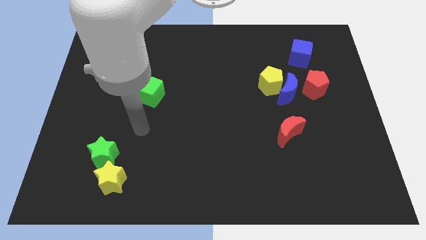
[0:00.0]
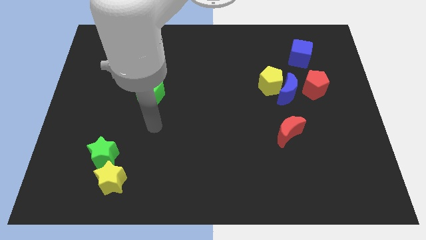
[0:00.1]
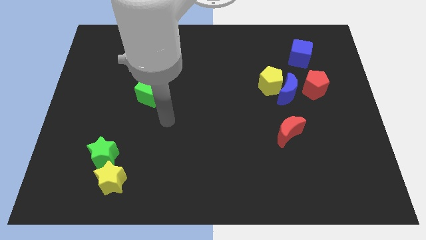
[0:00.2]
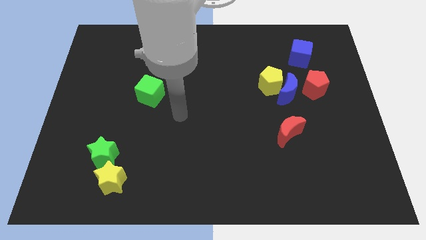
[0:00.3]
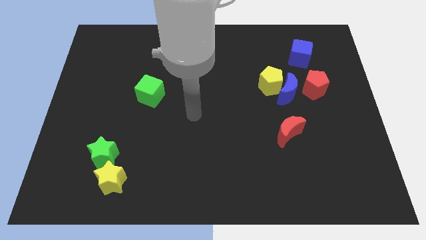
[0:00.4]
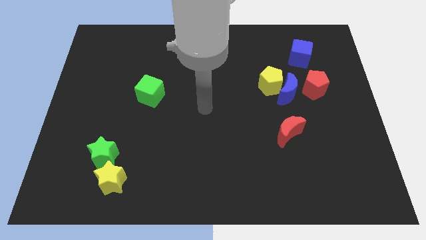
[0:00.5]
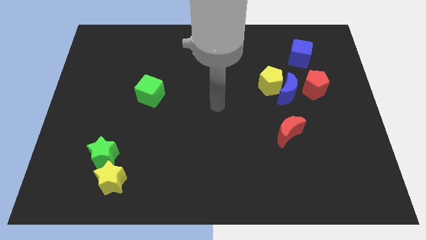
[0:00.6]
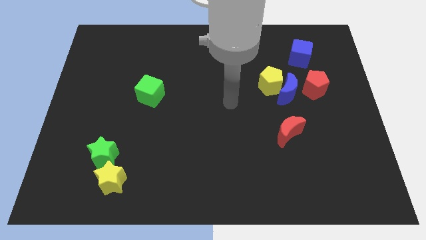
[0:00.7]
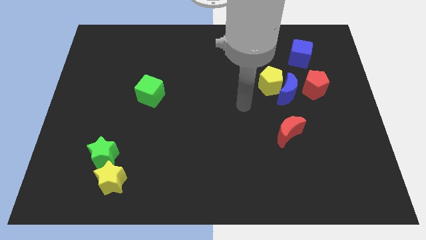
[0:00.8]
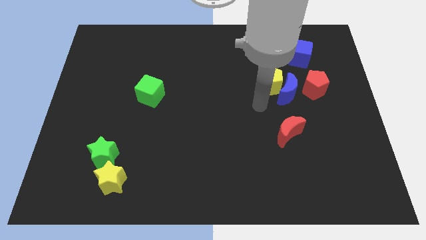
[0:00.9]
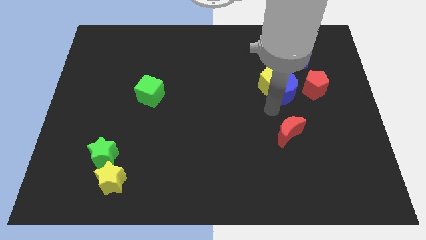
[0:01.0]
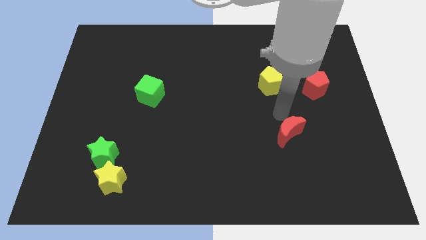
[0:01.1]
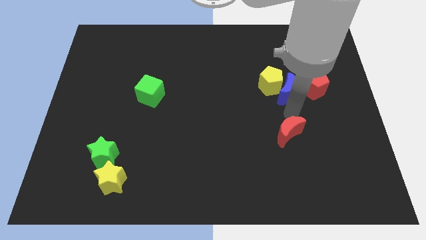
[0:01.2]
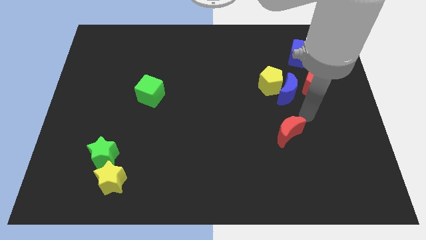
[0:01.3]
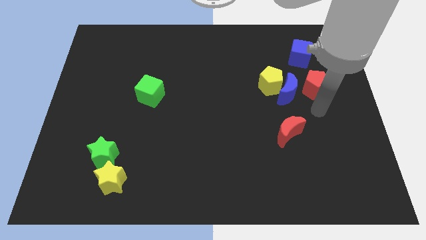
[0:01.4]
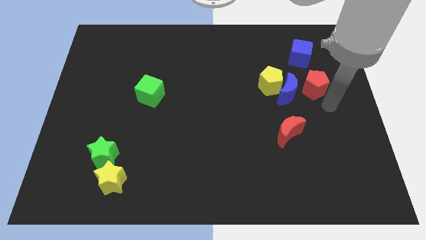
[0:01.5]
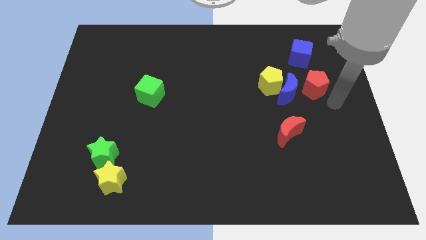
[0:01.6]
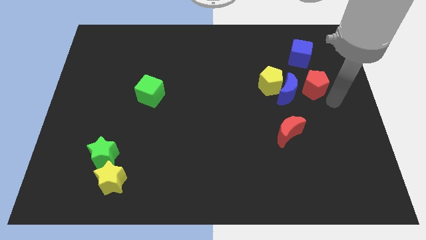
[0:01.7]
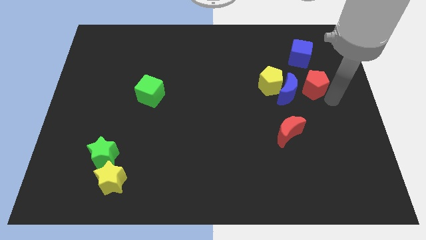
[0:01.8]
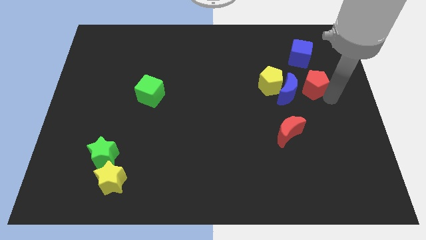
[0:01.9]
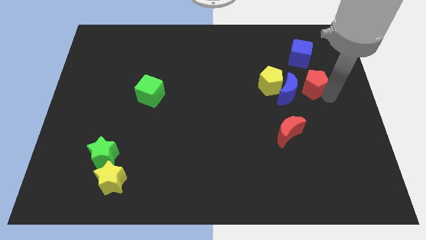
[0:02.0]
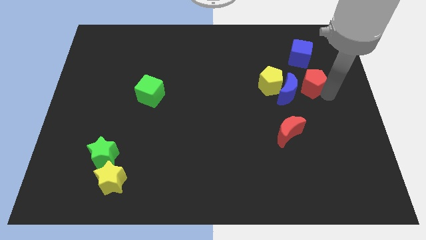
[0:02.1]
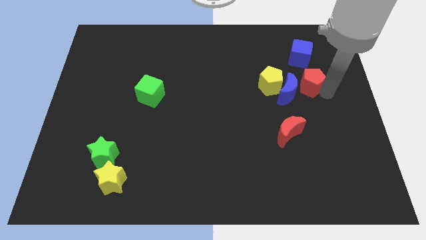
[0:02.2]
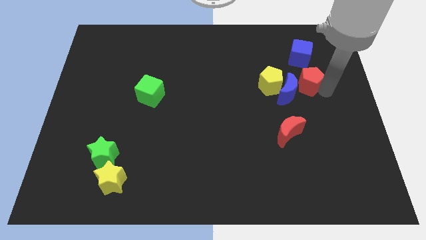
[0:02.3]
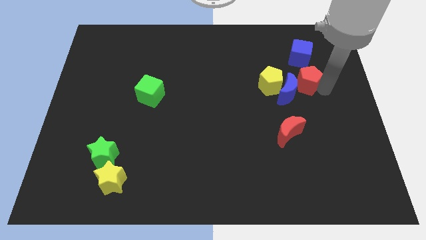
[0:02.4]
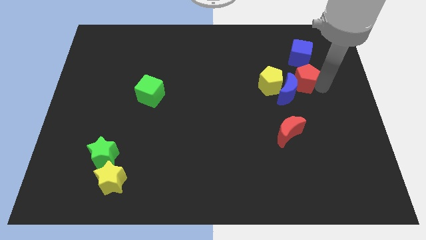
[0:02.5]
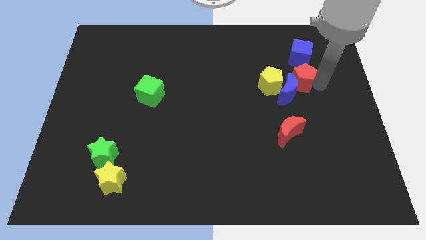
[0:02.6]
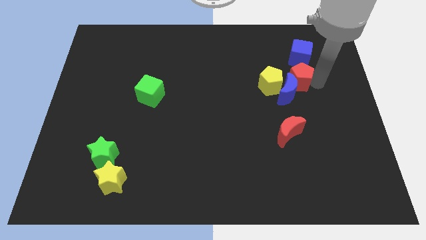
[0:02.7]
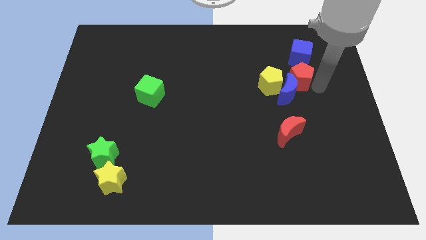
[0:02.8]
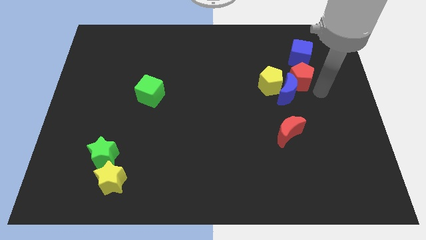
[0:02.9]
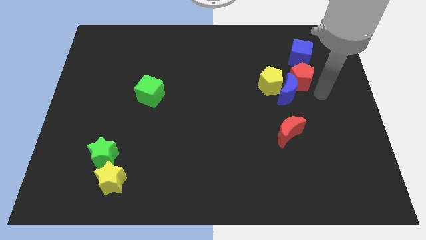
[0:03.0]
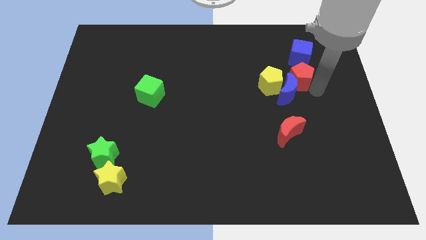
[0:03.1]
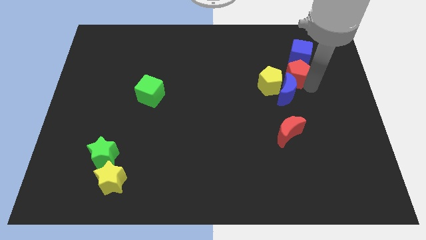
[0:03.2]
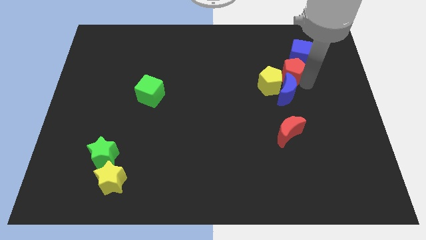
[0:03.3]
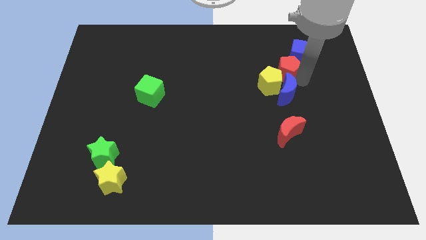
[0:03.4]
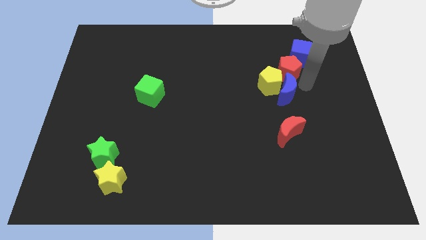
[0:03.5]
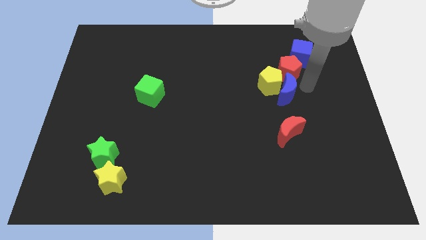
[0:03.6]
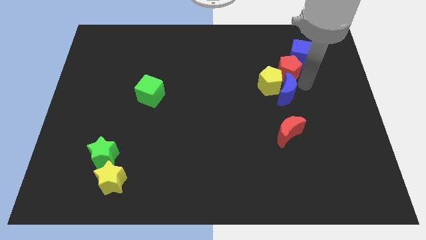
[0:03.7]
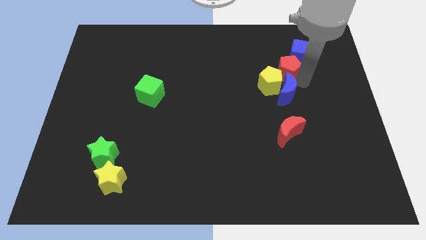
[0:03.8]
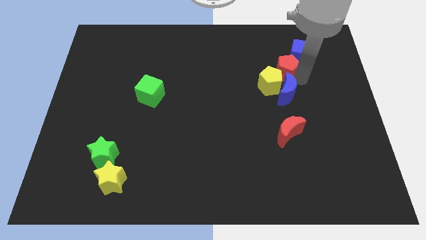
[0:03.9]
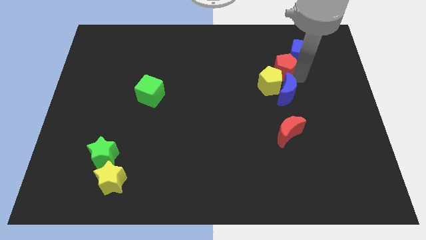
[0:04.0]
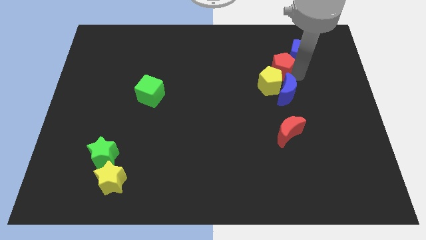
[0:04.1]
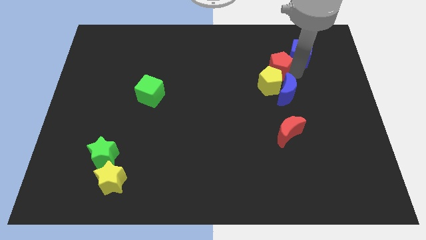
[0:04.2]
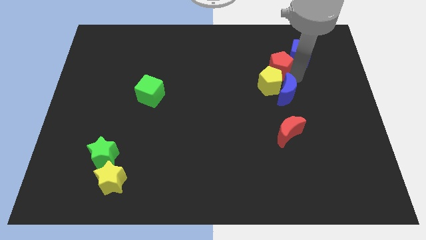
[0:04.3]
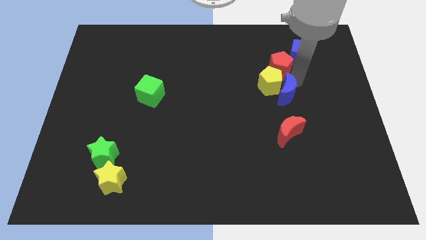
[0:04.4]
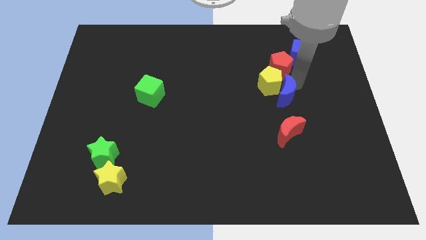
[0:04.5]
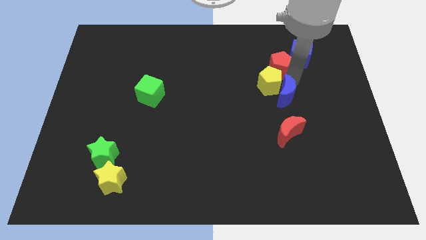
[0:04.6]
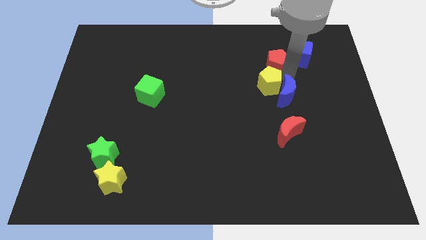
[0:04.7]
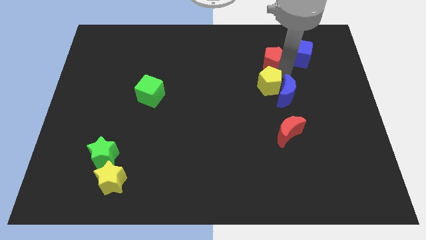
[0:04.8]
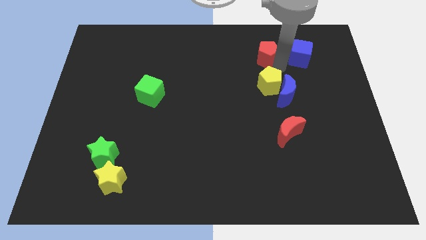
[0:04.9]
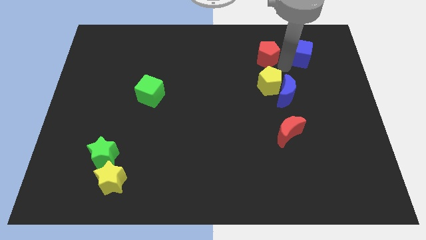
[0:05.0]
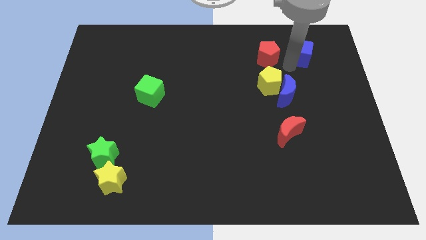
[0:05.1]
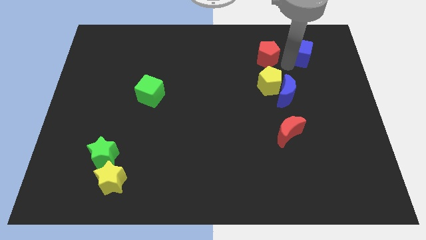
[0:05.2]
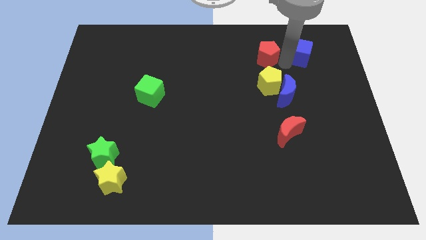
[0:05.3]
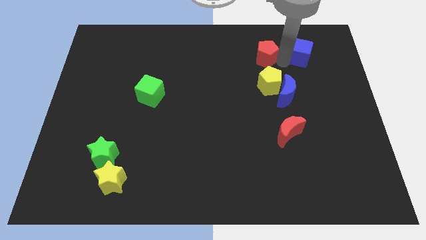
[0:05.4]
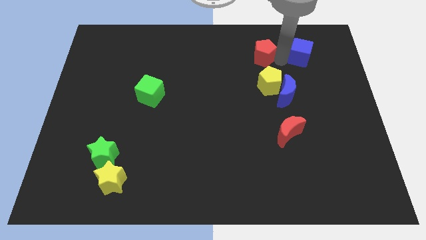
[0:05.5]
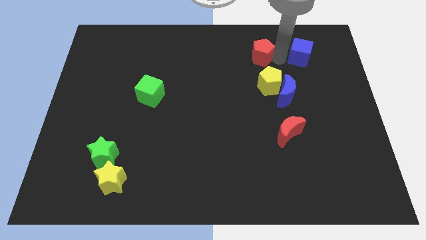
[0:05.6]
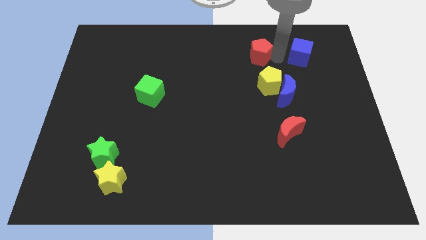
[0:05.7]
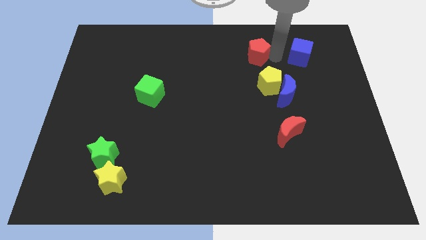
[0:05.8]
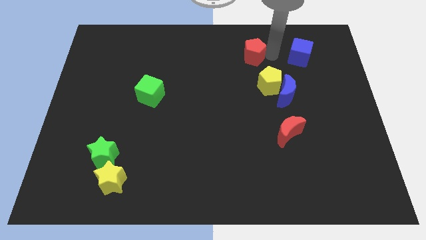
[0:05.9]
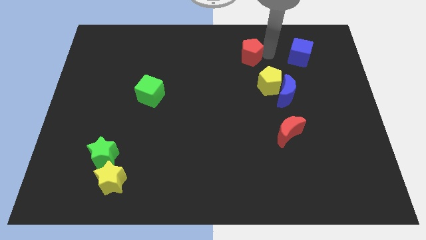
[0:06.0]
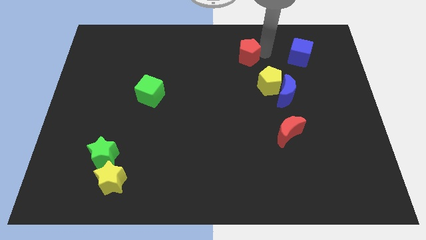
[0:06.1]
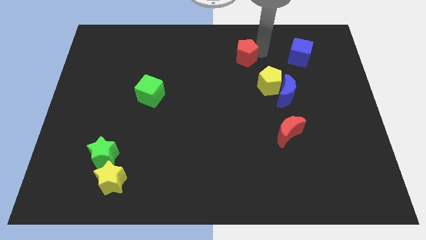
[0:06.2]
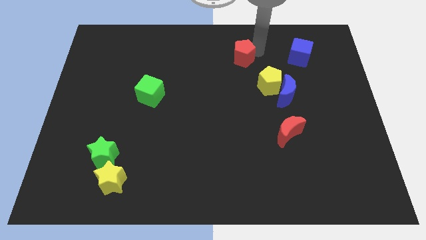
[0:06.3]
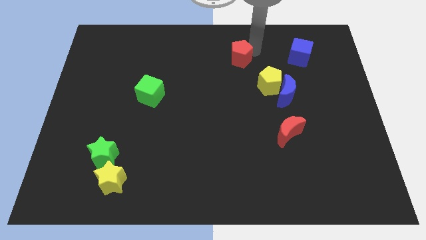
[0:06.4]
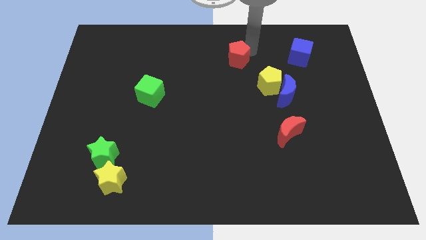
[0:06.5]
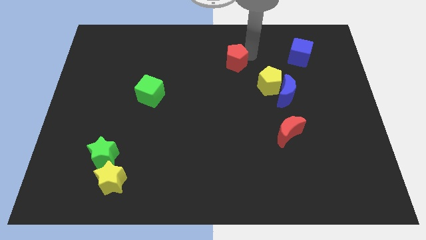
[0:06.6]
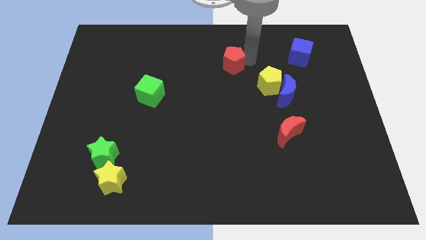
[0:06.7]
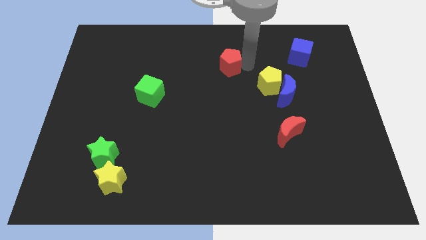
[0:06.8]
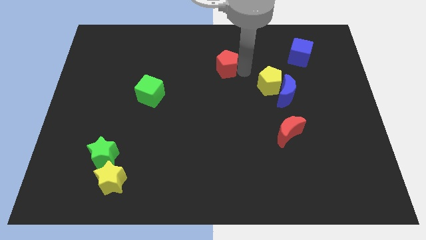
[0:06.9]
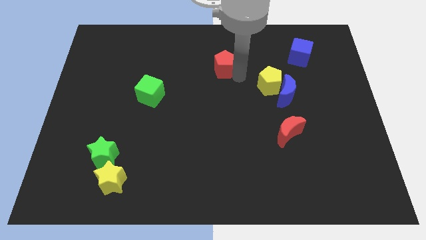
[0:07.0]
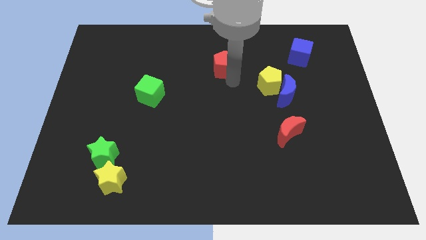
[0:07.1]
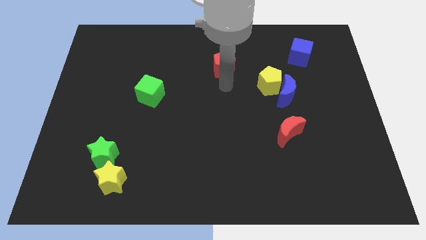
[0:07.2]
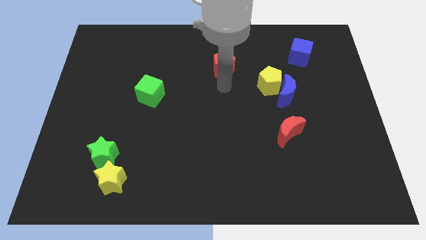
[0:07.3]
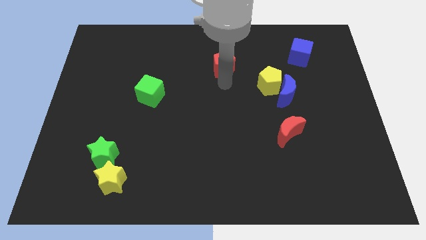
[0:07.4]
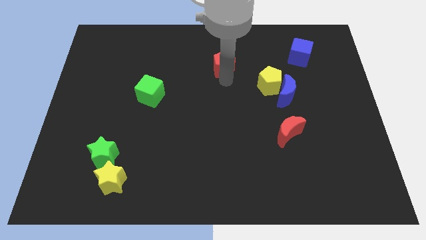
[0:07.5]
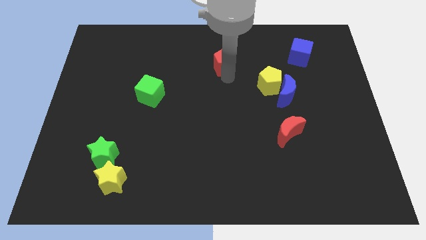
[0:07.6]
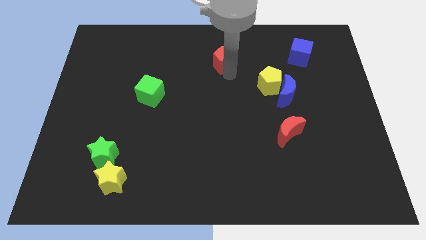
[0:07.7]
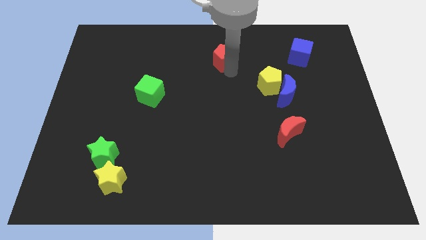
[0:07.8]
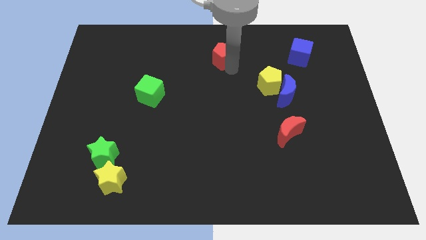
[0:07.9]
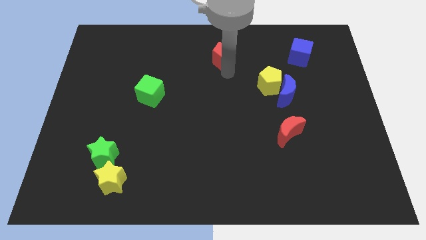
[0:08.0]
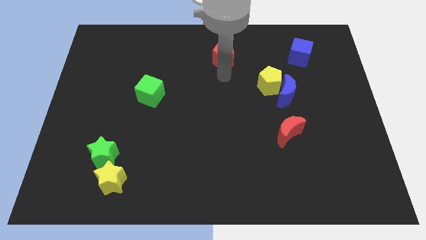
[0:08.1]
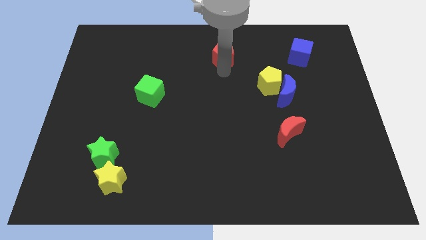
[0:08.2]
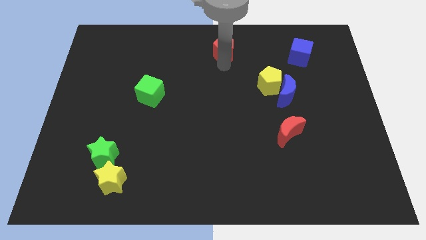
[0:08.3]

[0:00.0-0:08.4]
slide the red pentagon to the towards your base
